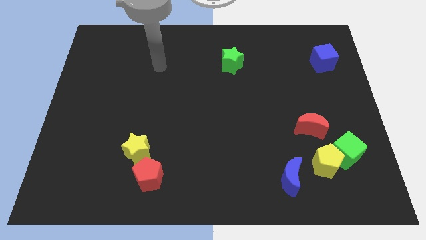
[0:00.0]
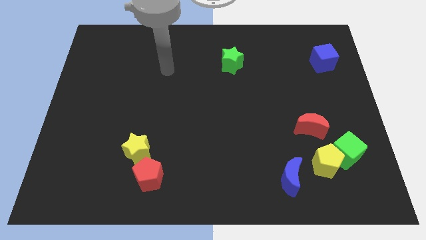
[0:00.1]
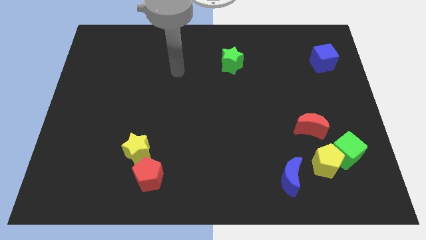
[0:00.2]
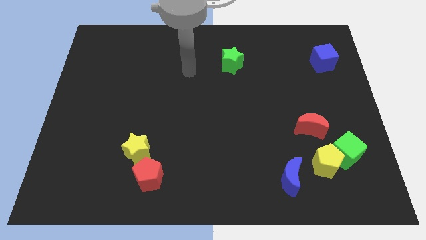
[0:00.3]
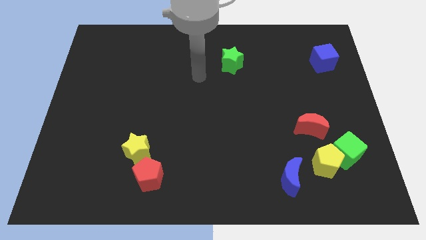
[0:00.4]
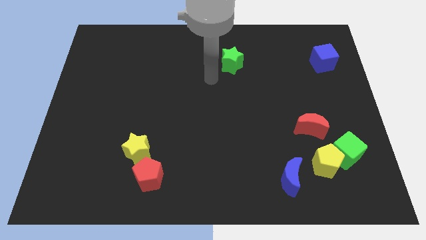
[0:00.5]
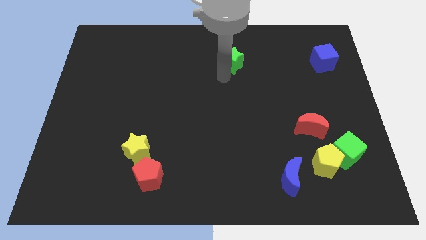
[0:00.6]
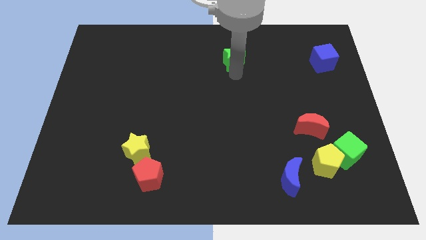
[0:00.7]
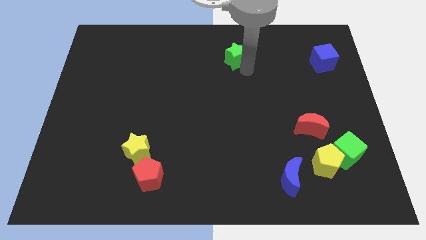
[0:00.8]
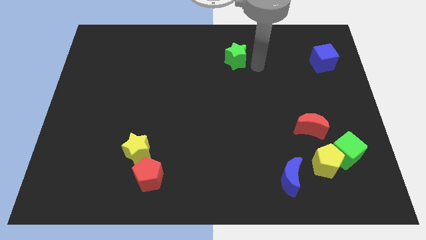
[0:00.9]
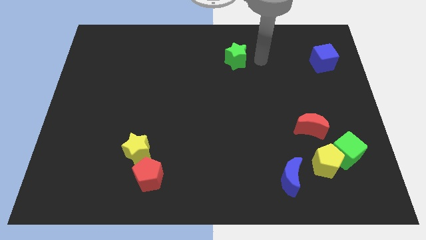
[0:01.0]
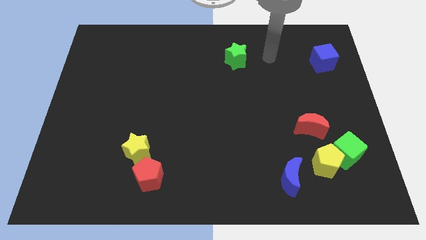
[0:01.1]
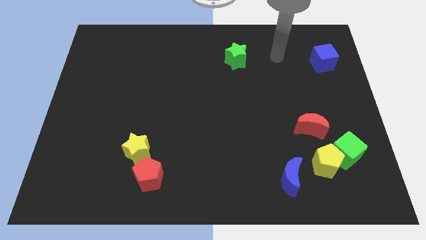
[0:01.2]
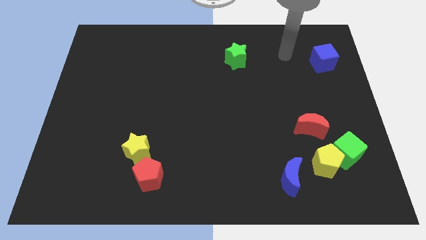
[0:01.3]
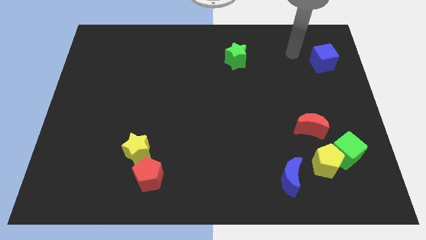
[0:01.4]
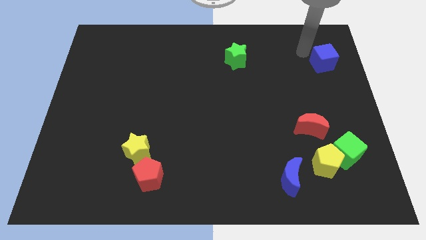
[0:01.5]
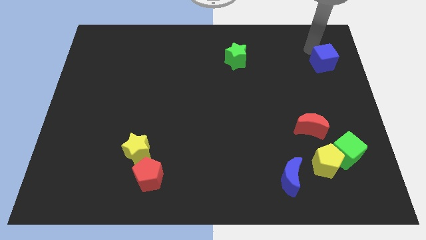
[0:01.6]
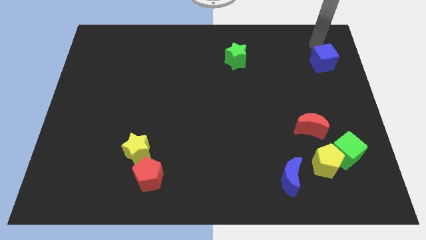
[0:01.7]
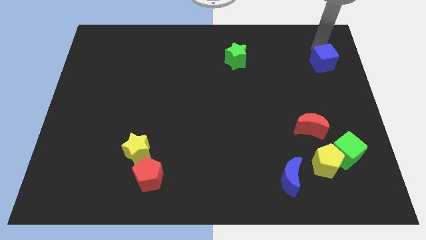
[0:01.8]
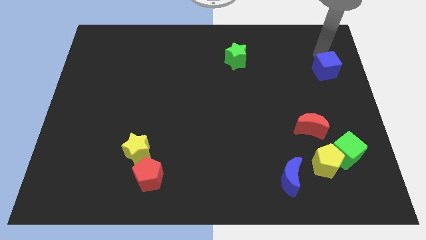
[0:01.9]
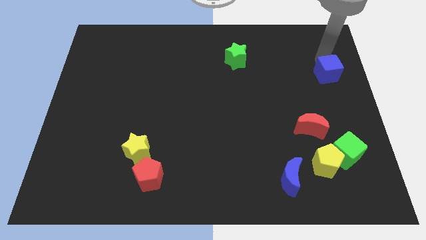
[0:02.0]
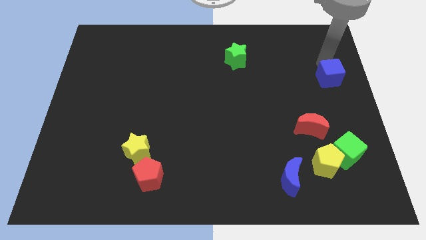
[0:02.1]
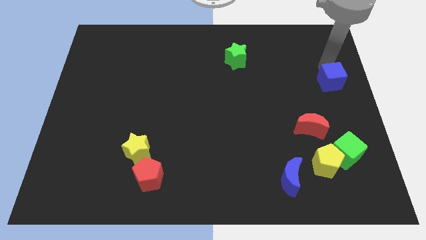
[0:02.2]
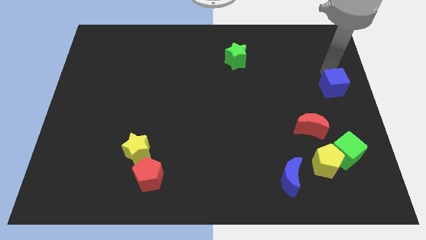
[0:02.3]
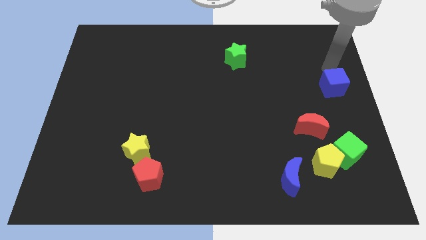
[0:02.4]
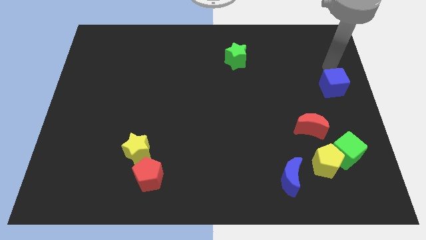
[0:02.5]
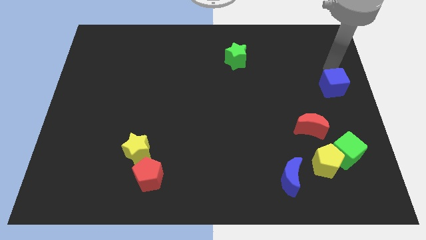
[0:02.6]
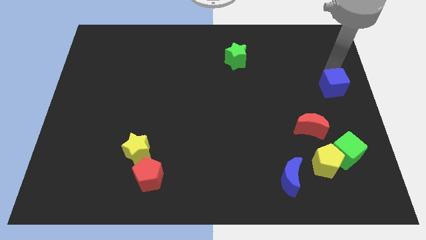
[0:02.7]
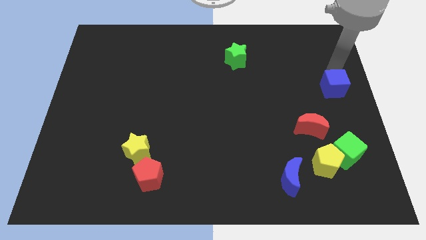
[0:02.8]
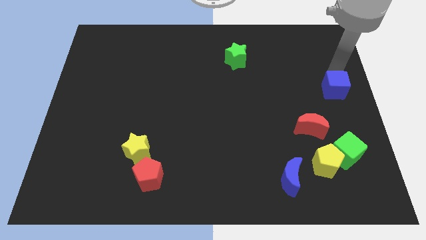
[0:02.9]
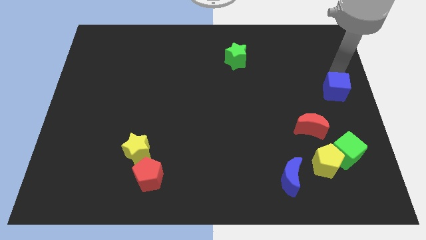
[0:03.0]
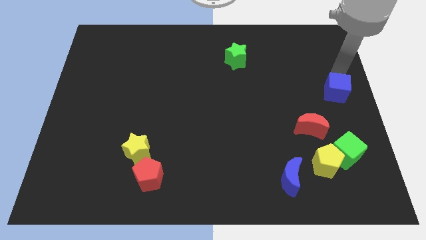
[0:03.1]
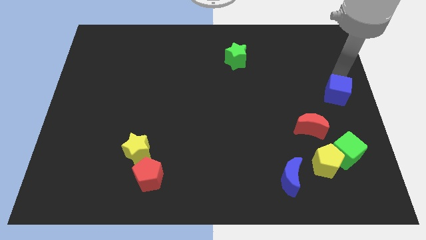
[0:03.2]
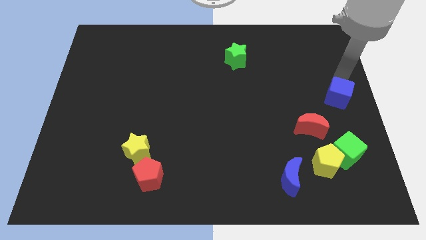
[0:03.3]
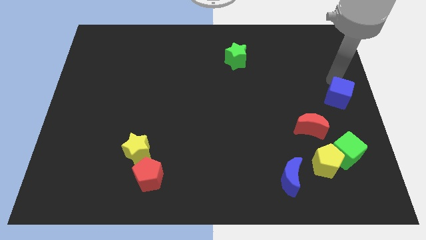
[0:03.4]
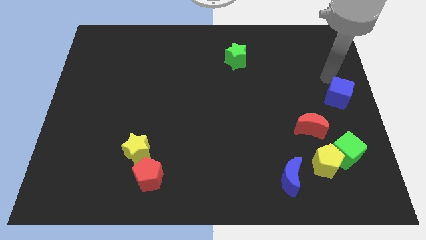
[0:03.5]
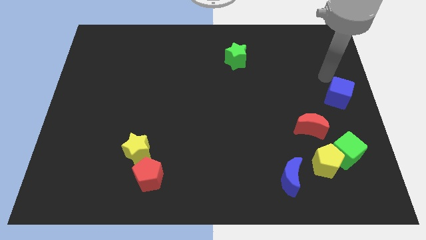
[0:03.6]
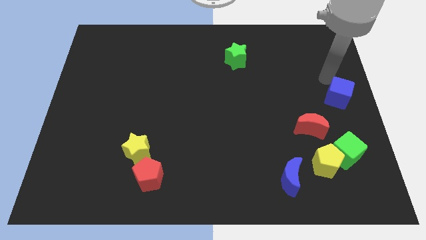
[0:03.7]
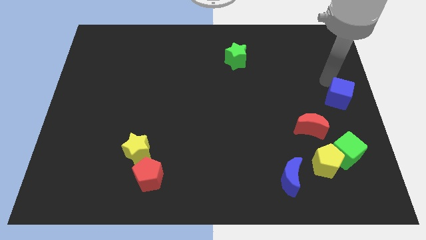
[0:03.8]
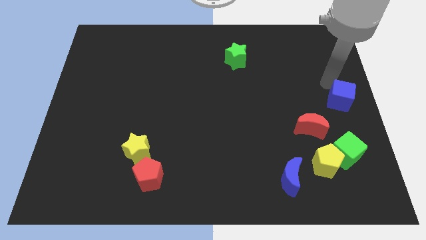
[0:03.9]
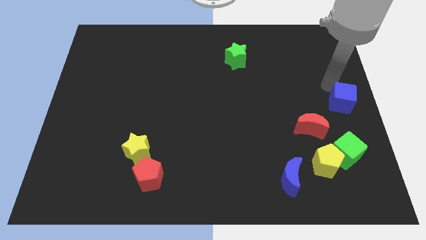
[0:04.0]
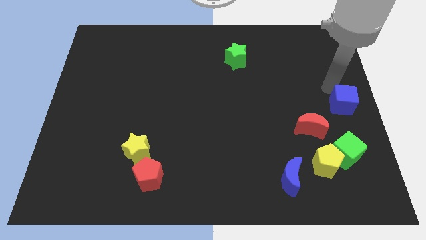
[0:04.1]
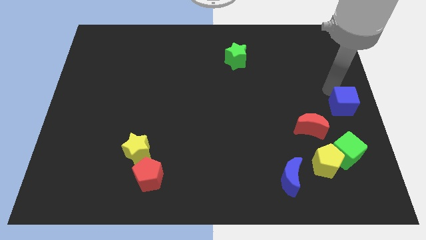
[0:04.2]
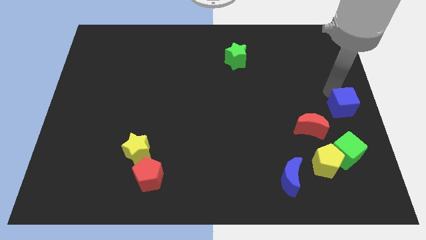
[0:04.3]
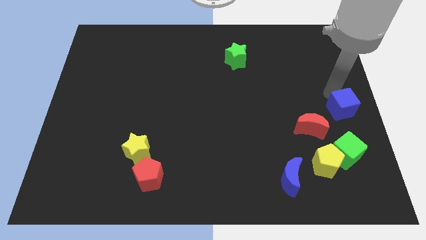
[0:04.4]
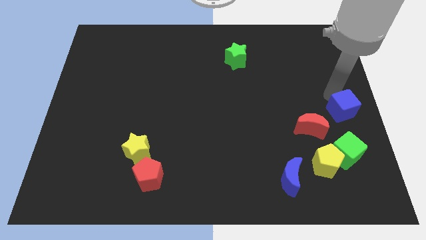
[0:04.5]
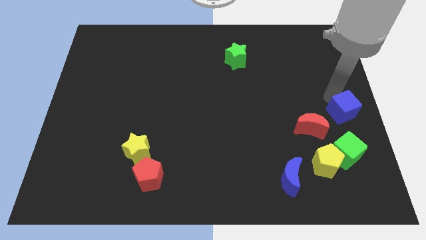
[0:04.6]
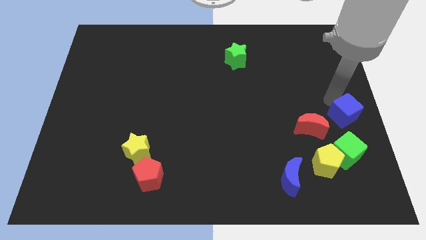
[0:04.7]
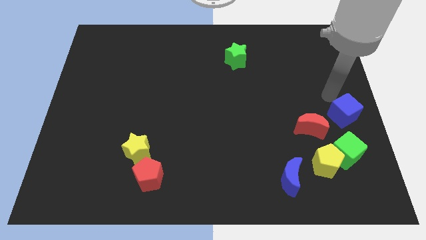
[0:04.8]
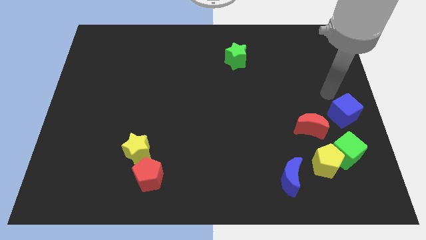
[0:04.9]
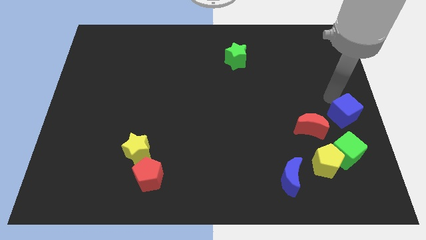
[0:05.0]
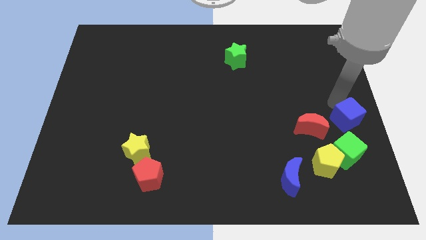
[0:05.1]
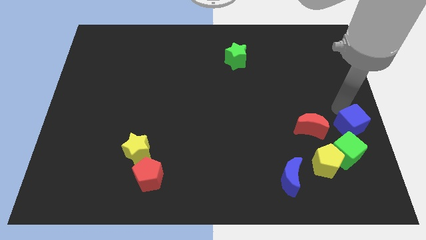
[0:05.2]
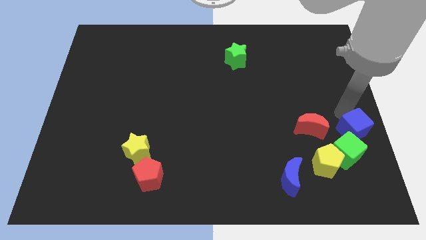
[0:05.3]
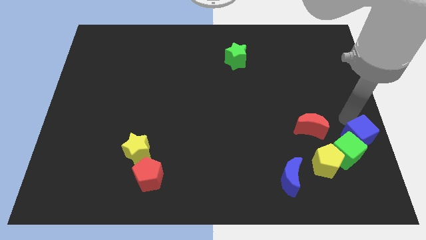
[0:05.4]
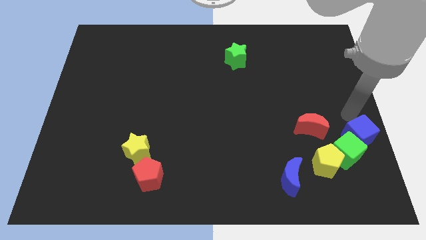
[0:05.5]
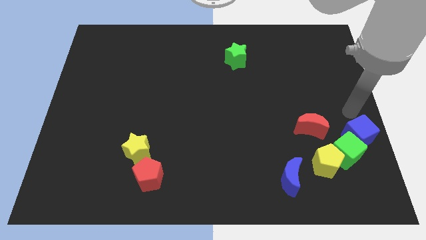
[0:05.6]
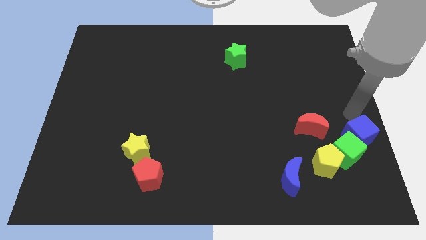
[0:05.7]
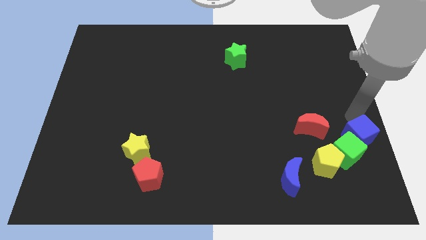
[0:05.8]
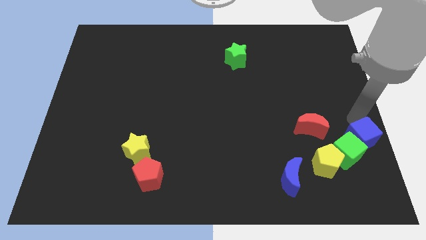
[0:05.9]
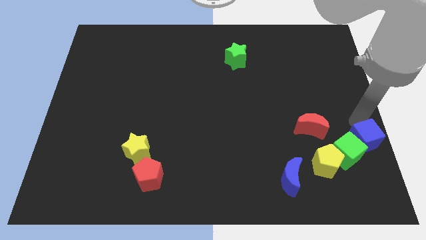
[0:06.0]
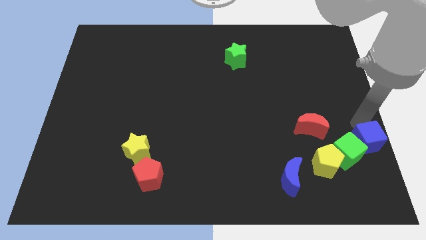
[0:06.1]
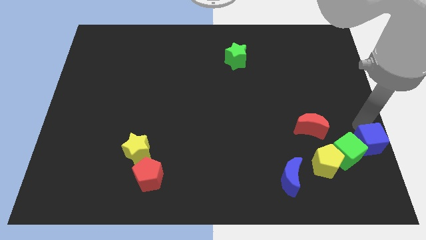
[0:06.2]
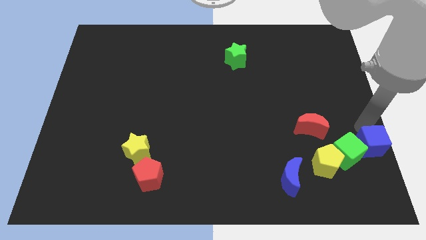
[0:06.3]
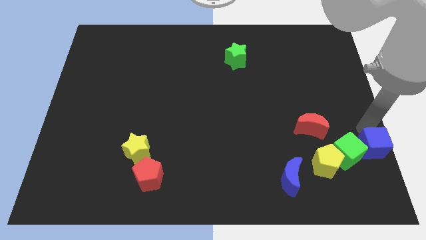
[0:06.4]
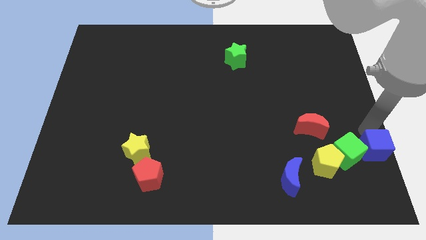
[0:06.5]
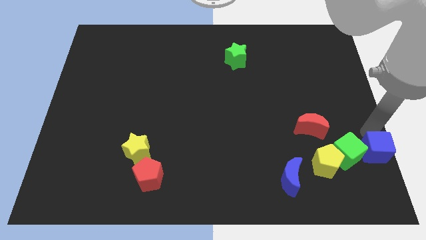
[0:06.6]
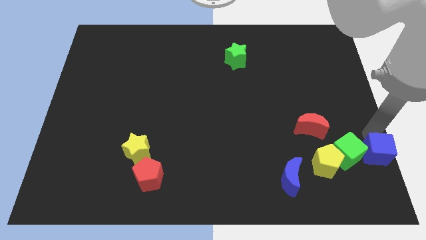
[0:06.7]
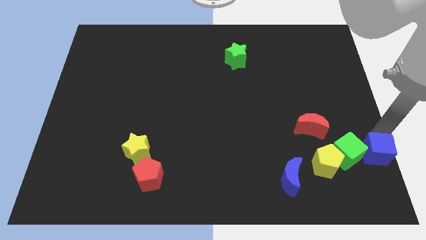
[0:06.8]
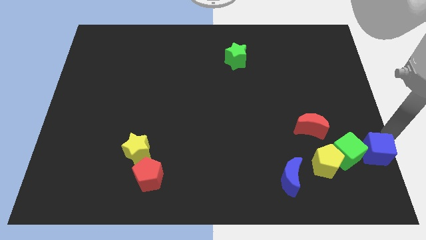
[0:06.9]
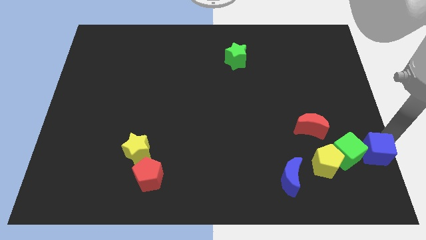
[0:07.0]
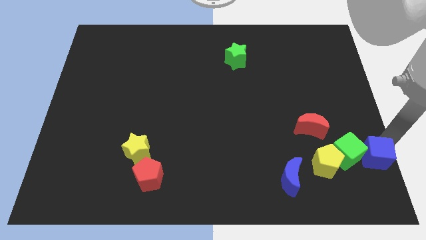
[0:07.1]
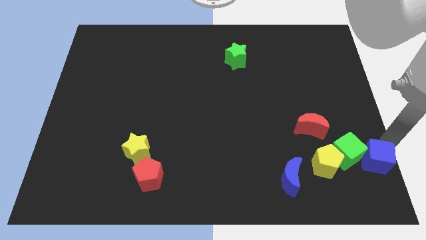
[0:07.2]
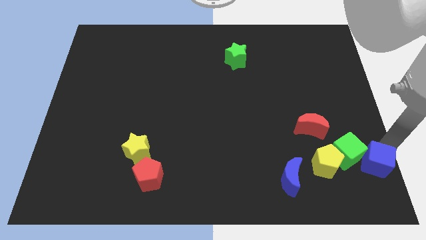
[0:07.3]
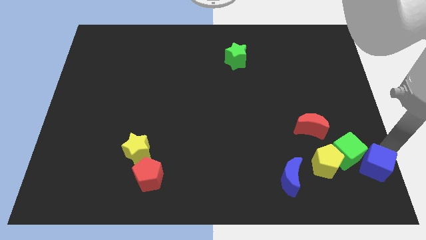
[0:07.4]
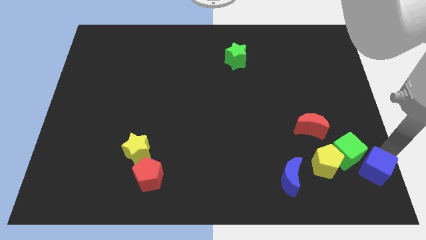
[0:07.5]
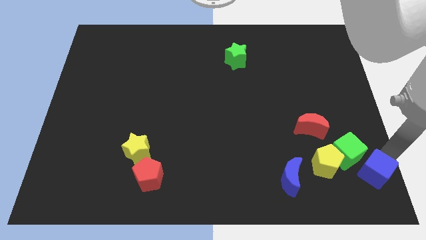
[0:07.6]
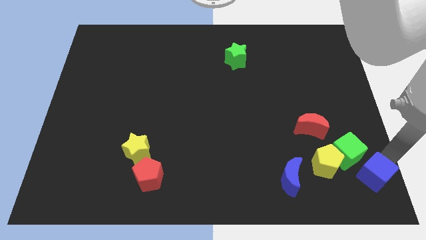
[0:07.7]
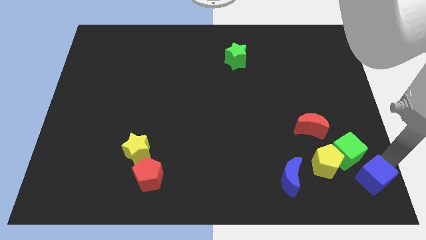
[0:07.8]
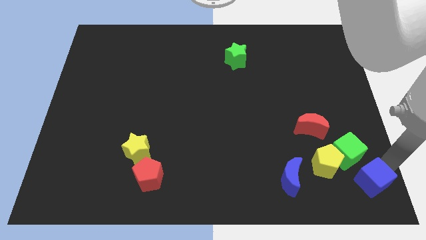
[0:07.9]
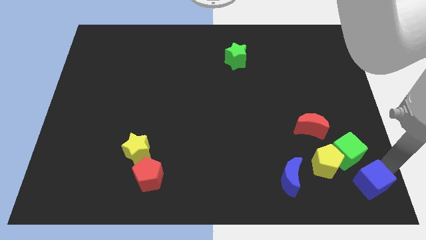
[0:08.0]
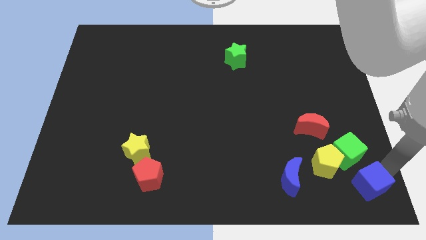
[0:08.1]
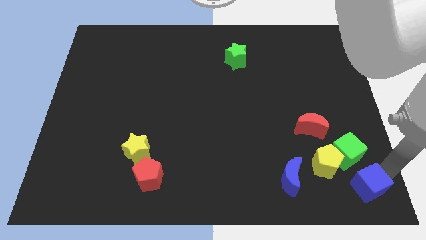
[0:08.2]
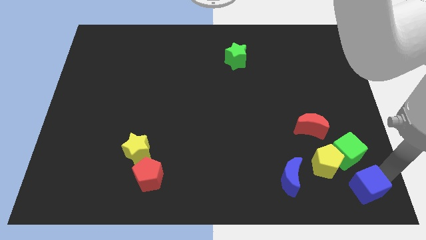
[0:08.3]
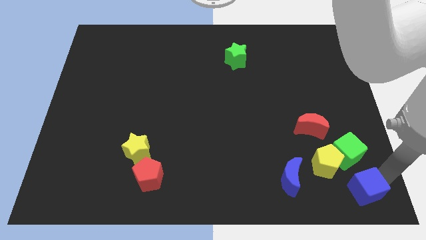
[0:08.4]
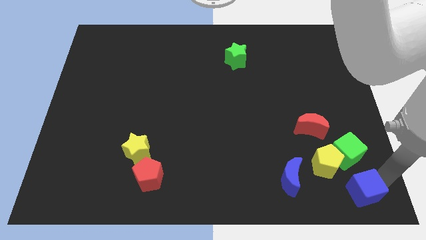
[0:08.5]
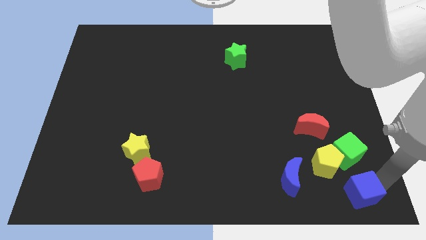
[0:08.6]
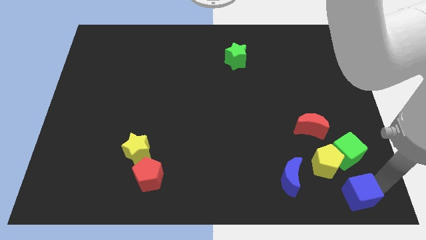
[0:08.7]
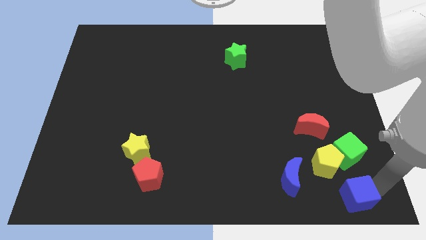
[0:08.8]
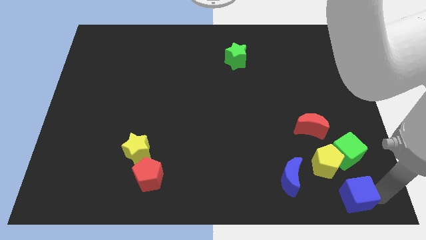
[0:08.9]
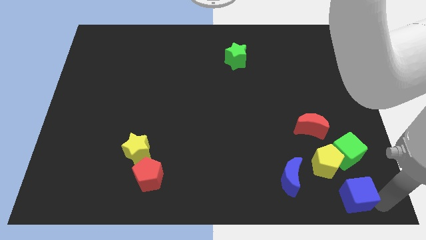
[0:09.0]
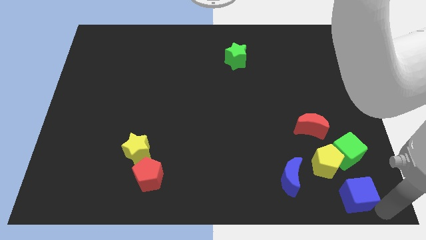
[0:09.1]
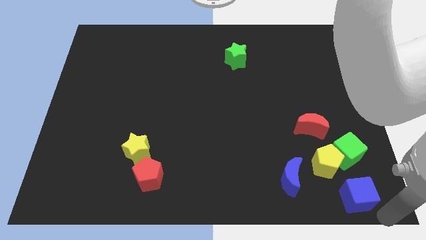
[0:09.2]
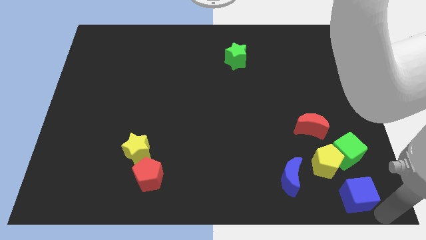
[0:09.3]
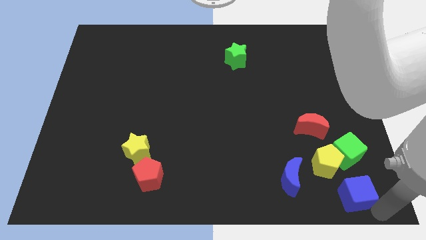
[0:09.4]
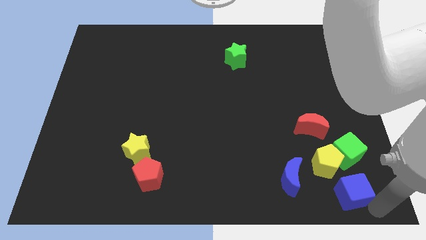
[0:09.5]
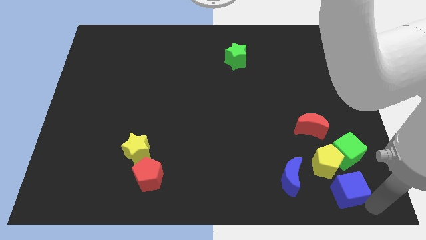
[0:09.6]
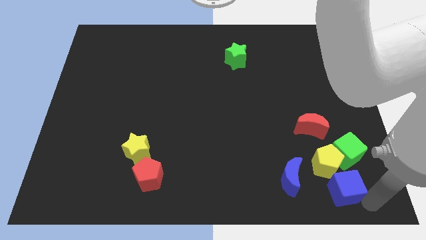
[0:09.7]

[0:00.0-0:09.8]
slide the blue cube to the bottom left of the green cube
